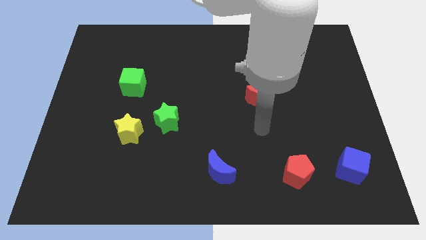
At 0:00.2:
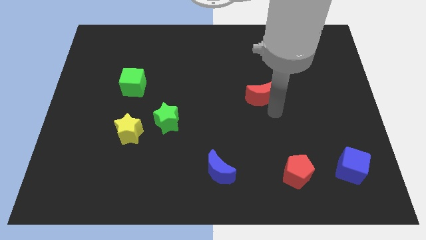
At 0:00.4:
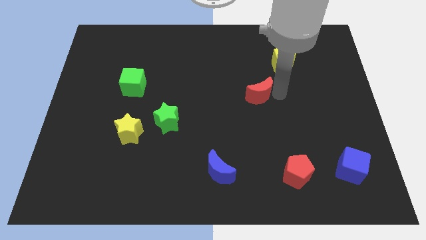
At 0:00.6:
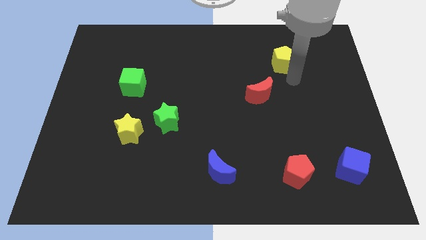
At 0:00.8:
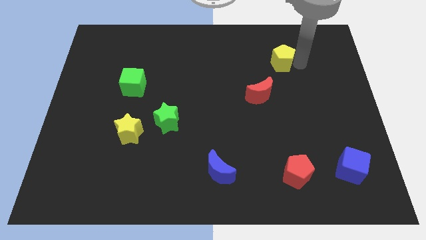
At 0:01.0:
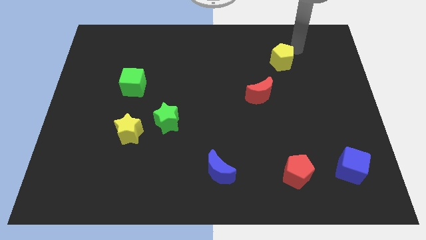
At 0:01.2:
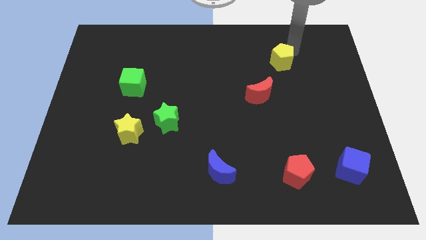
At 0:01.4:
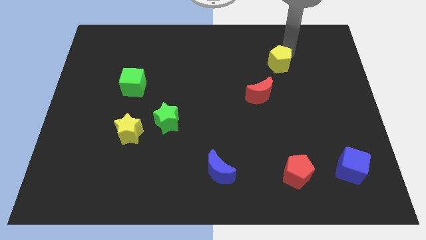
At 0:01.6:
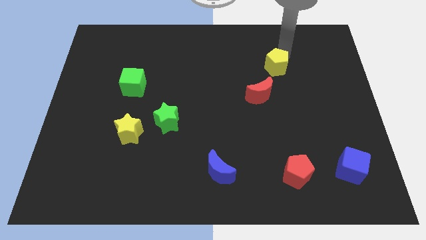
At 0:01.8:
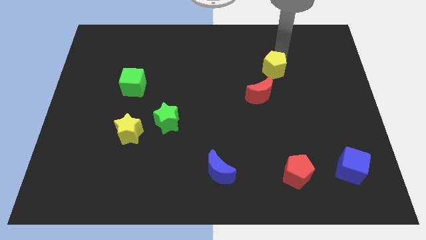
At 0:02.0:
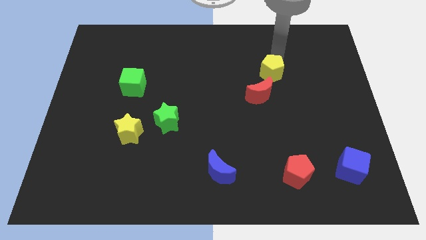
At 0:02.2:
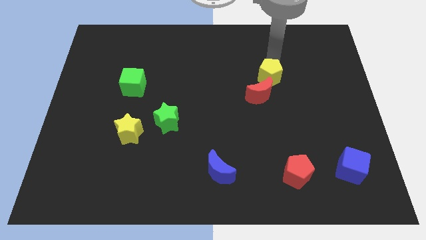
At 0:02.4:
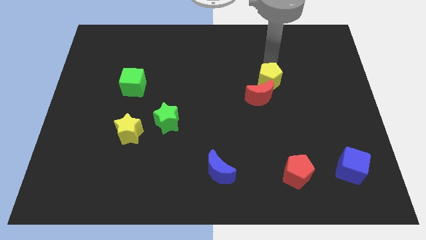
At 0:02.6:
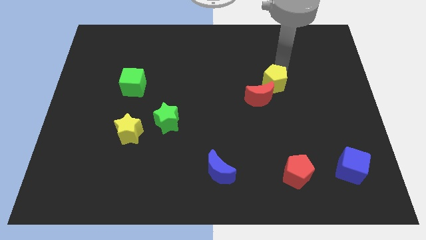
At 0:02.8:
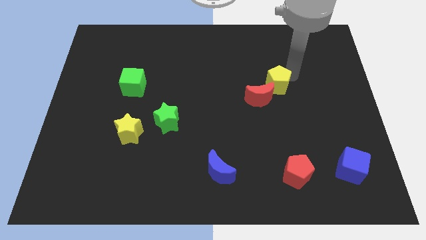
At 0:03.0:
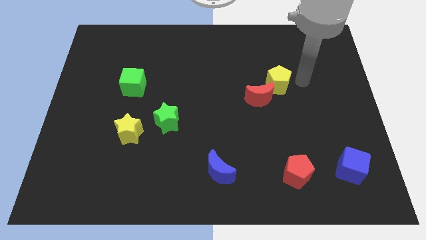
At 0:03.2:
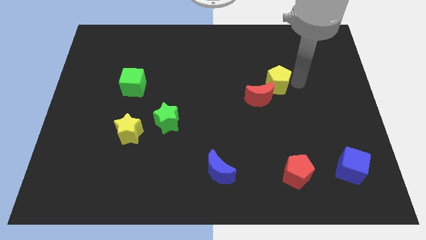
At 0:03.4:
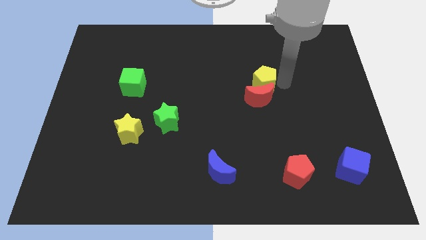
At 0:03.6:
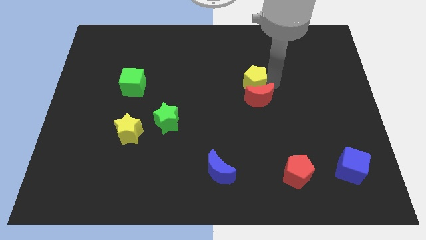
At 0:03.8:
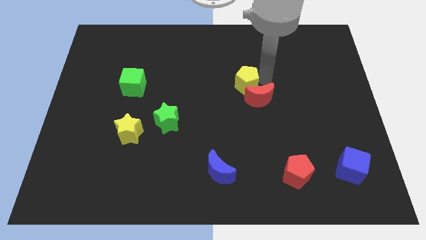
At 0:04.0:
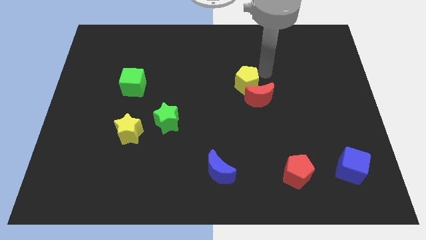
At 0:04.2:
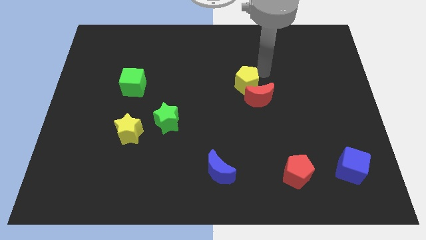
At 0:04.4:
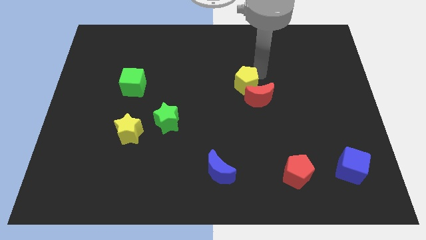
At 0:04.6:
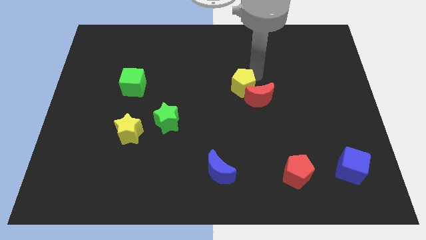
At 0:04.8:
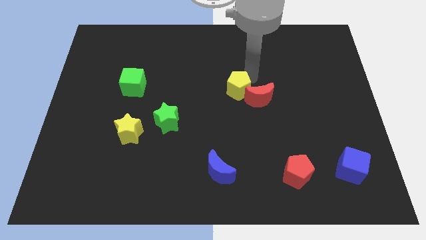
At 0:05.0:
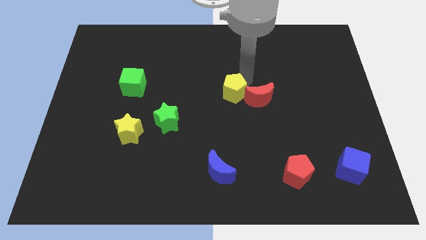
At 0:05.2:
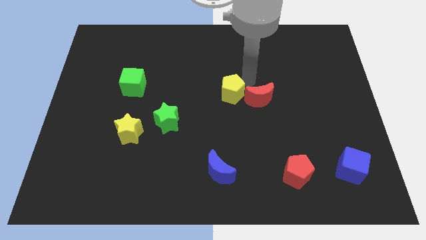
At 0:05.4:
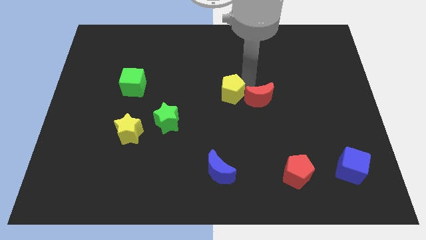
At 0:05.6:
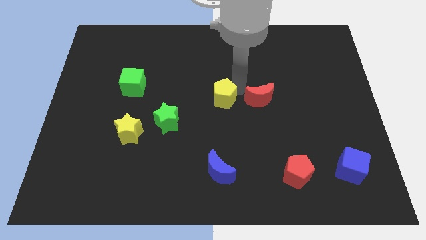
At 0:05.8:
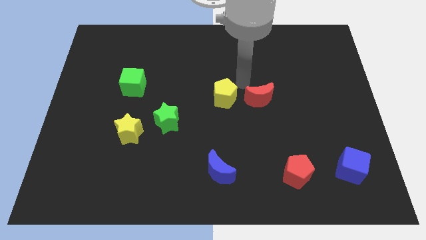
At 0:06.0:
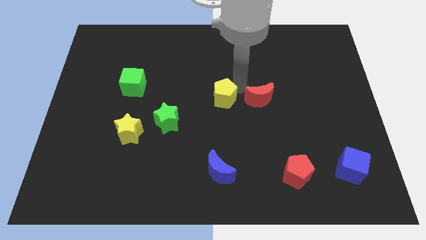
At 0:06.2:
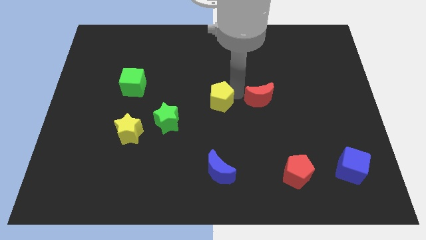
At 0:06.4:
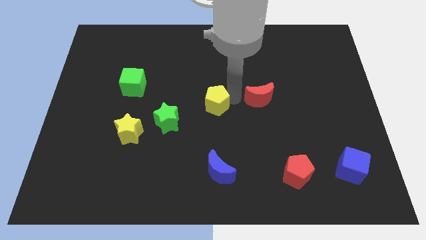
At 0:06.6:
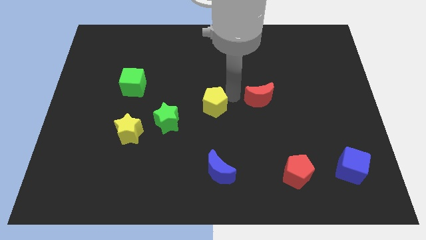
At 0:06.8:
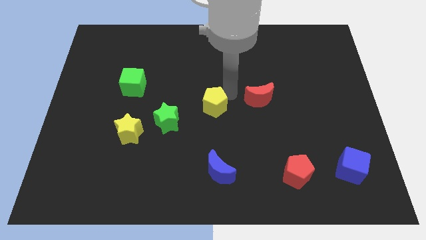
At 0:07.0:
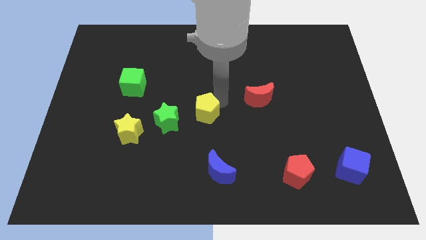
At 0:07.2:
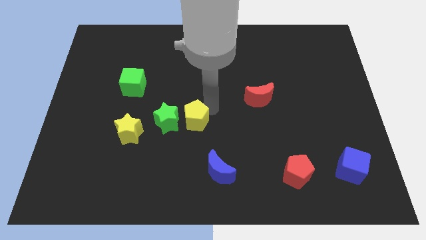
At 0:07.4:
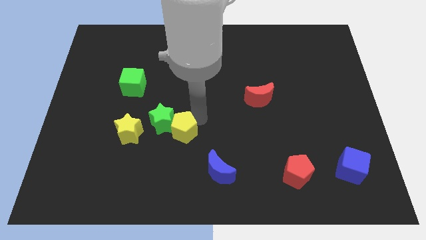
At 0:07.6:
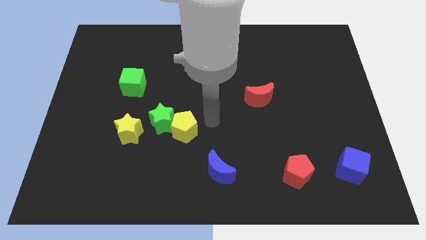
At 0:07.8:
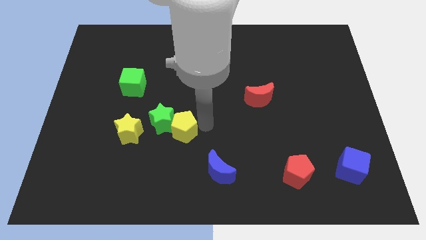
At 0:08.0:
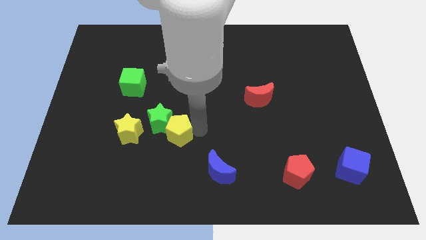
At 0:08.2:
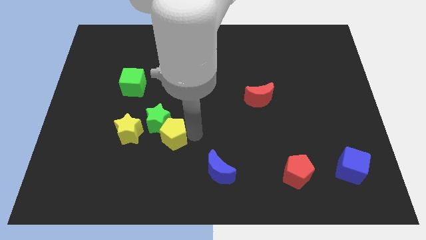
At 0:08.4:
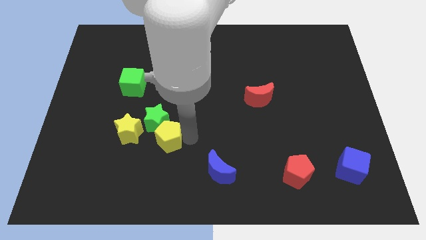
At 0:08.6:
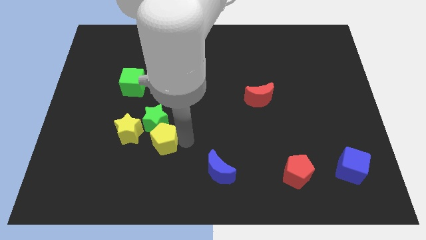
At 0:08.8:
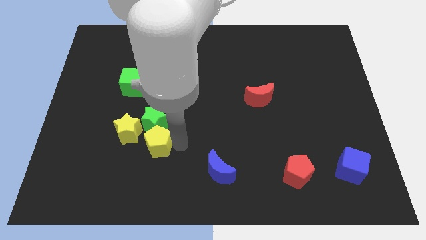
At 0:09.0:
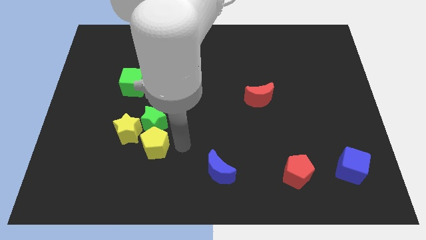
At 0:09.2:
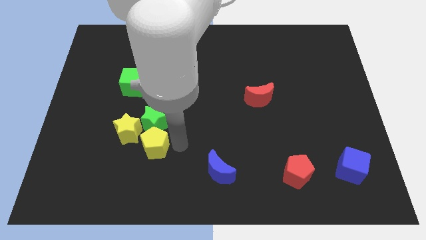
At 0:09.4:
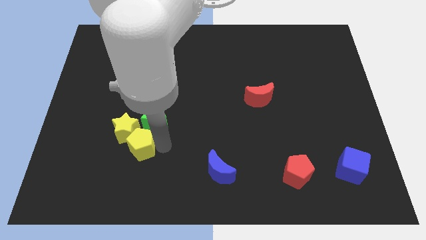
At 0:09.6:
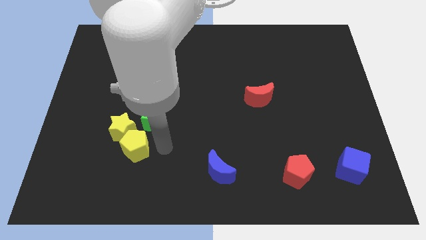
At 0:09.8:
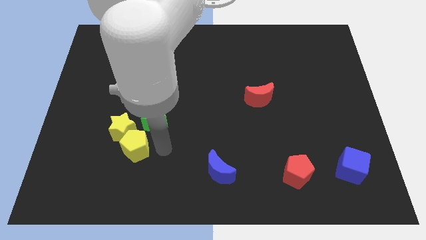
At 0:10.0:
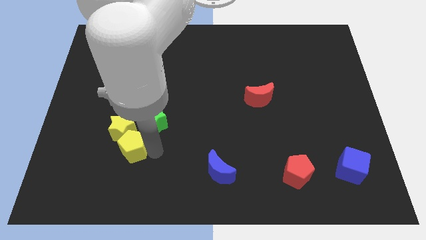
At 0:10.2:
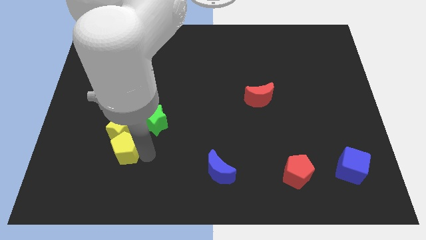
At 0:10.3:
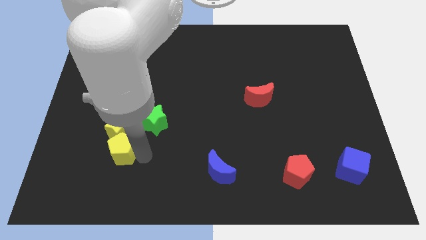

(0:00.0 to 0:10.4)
push the yellow pentagon to the bottom left side of the yellow star
